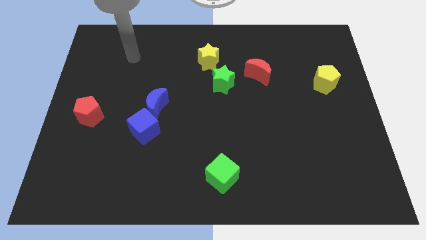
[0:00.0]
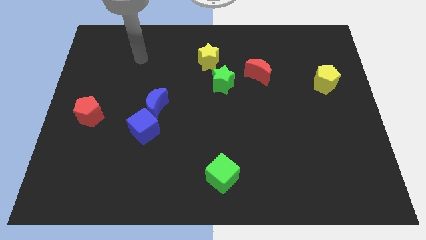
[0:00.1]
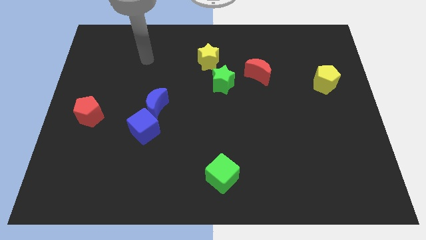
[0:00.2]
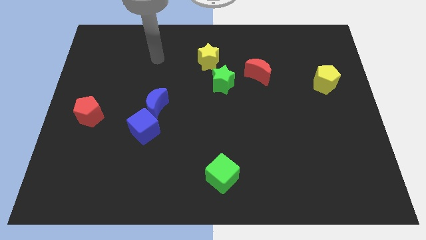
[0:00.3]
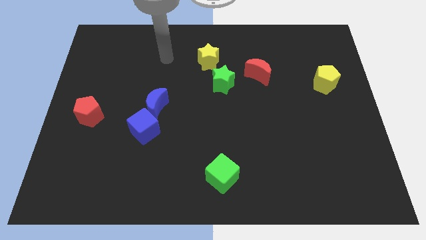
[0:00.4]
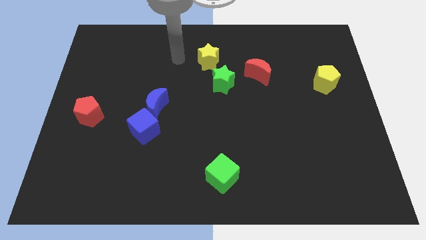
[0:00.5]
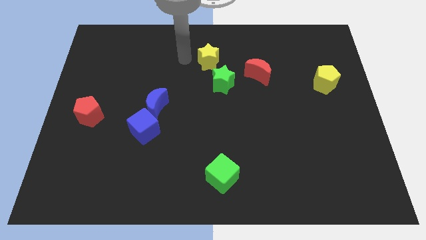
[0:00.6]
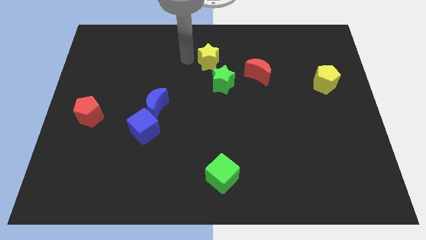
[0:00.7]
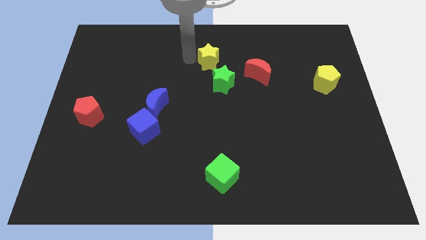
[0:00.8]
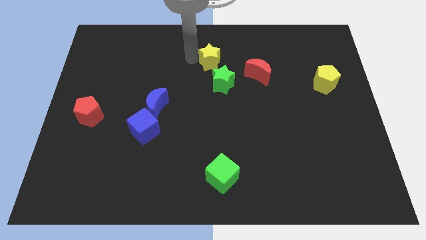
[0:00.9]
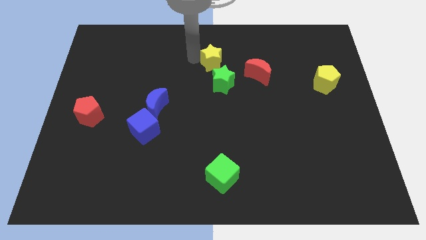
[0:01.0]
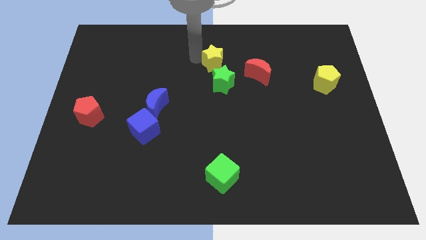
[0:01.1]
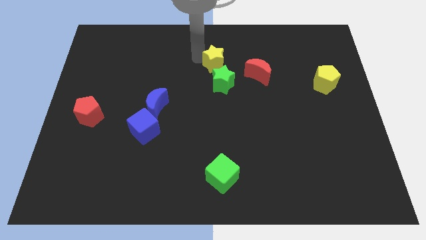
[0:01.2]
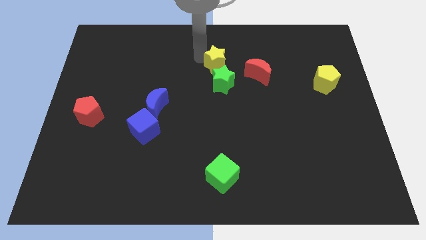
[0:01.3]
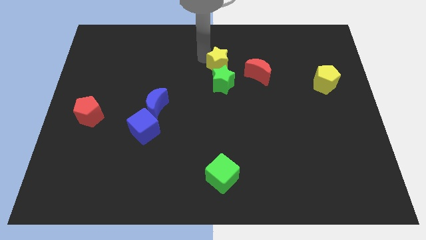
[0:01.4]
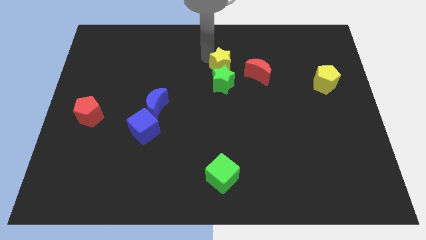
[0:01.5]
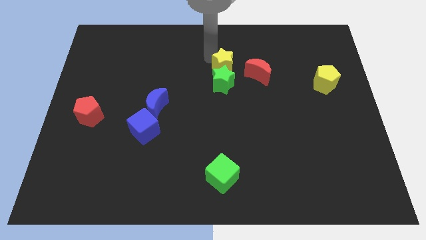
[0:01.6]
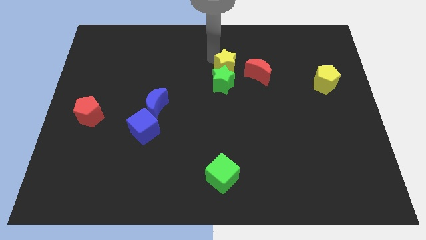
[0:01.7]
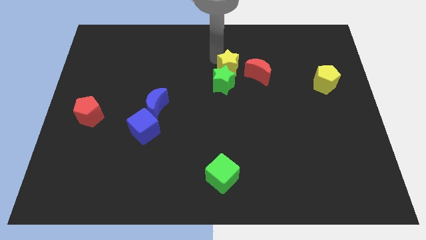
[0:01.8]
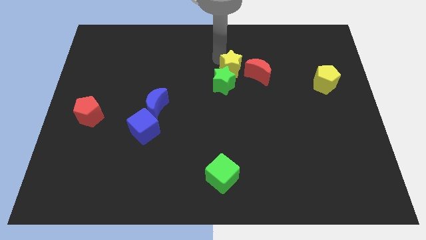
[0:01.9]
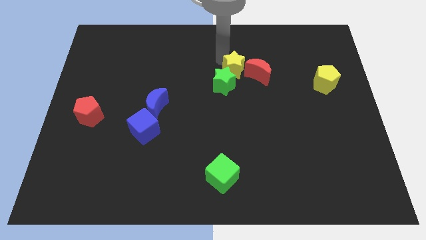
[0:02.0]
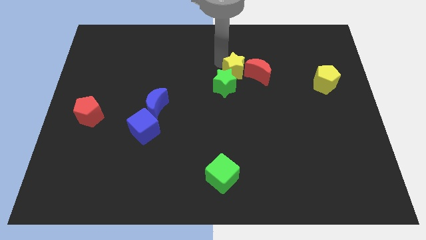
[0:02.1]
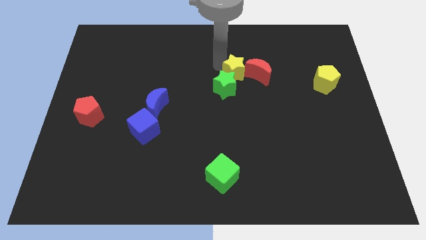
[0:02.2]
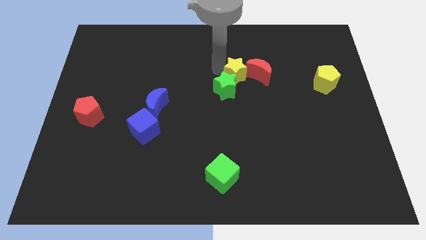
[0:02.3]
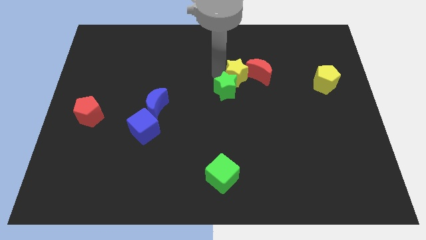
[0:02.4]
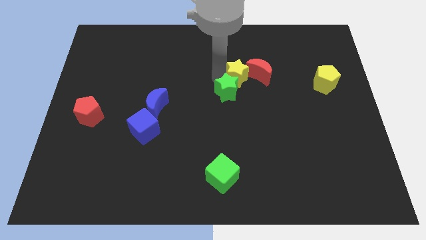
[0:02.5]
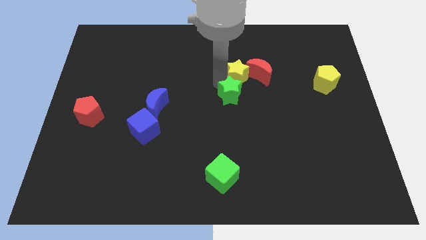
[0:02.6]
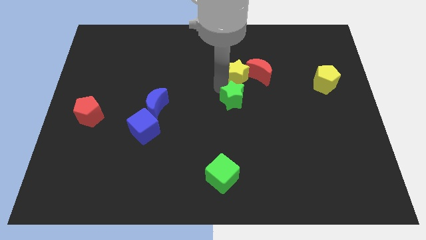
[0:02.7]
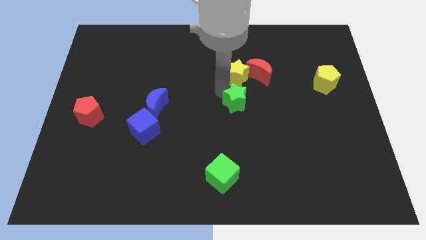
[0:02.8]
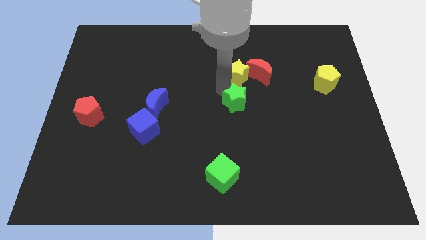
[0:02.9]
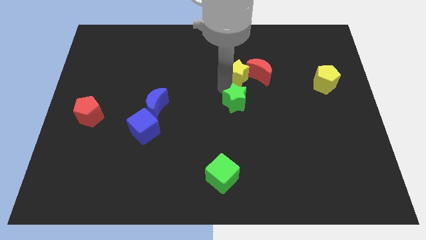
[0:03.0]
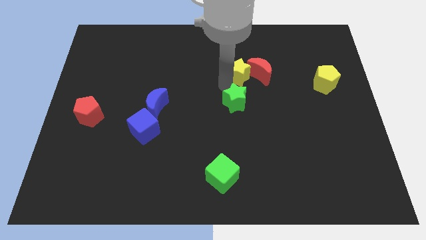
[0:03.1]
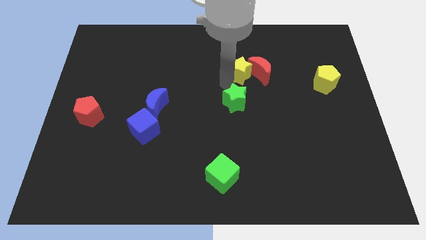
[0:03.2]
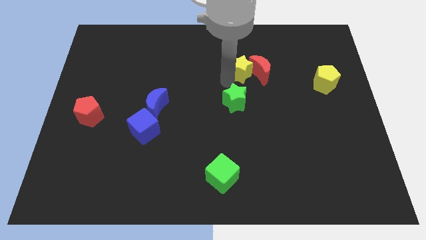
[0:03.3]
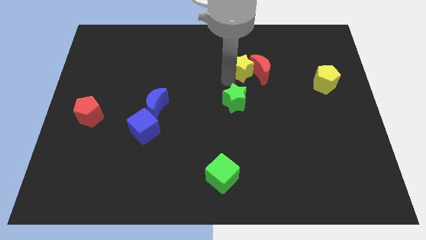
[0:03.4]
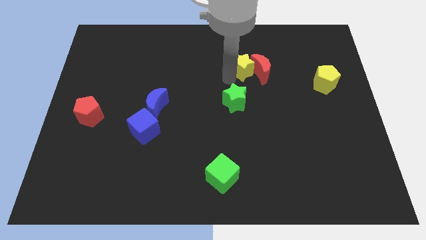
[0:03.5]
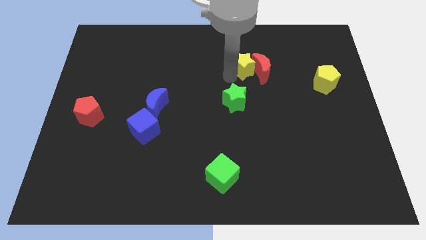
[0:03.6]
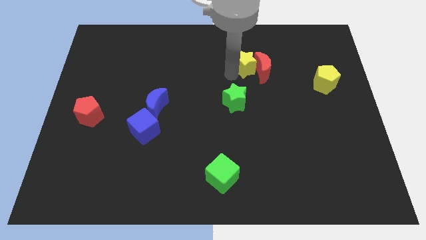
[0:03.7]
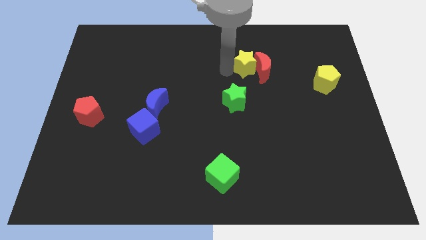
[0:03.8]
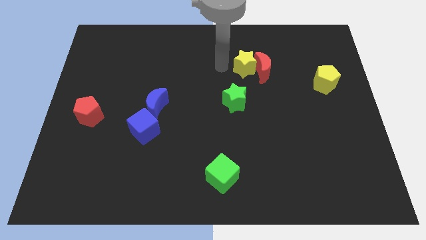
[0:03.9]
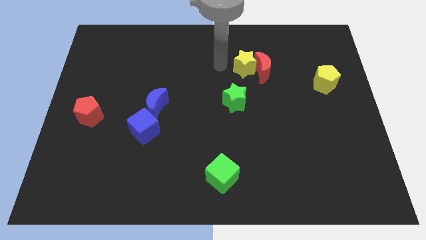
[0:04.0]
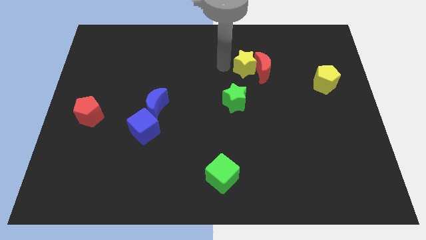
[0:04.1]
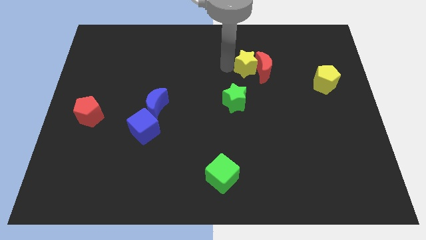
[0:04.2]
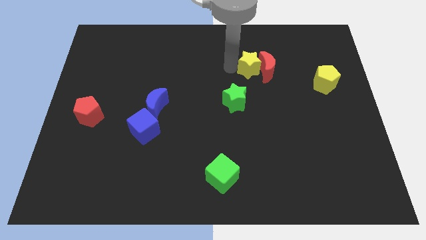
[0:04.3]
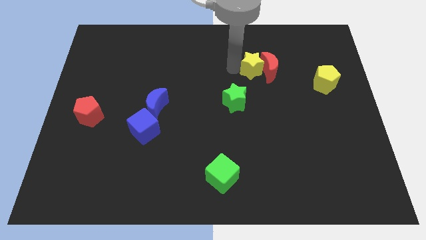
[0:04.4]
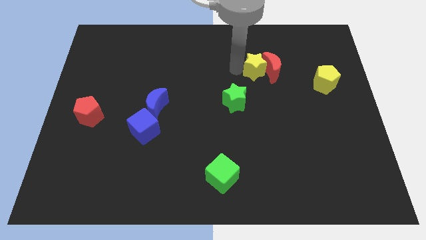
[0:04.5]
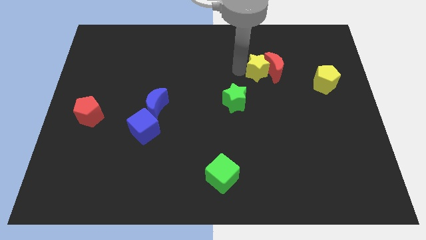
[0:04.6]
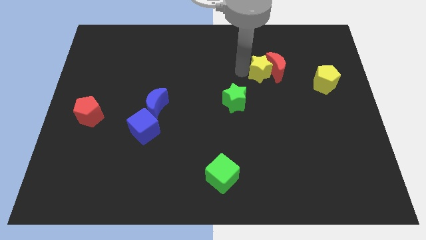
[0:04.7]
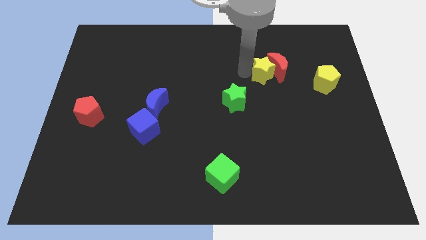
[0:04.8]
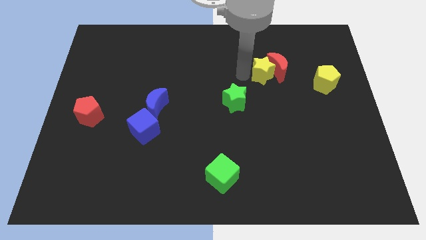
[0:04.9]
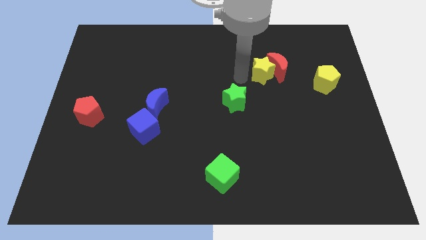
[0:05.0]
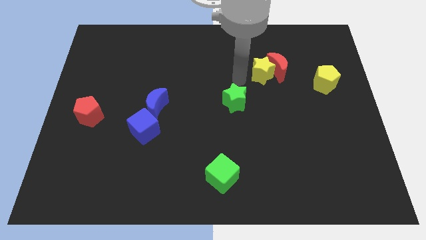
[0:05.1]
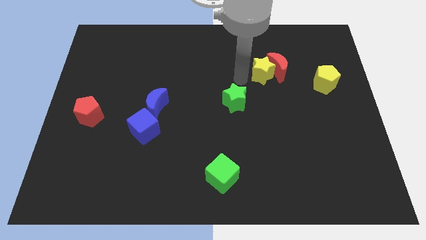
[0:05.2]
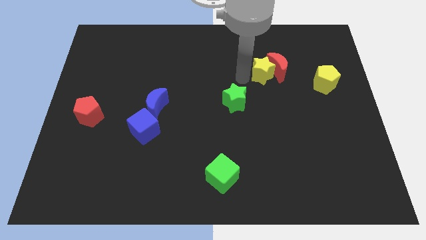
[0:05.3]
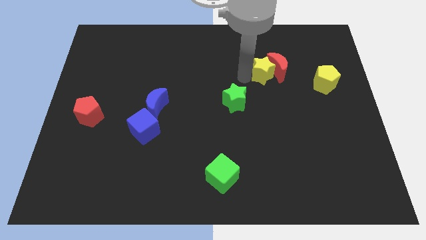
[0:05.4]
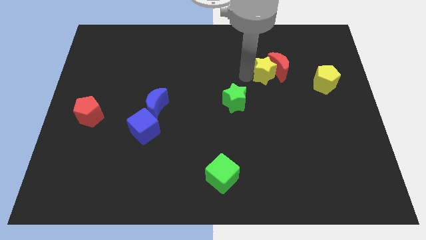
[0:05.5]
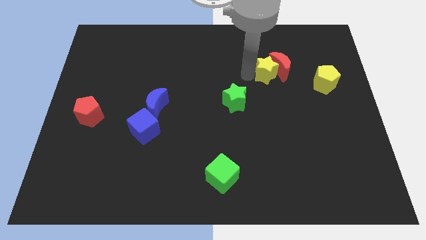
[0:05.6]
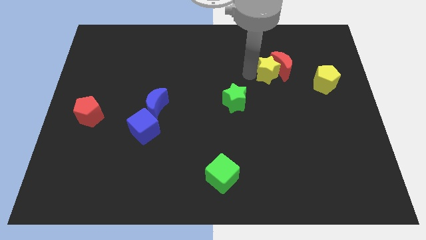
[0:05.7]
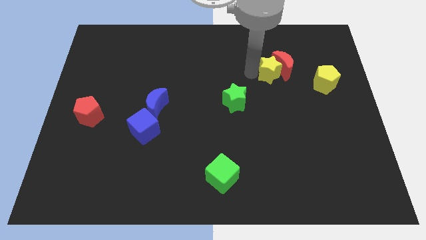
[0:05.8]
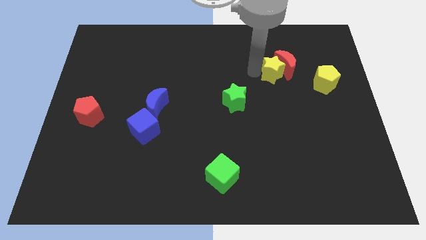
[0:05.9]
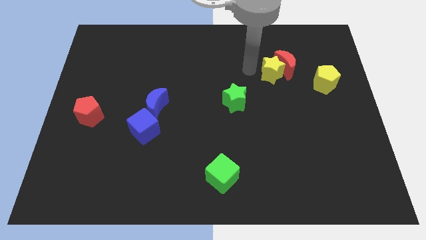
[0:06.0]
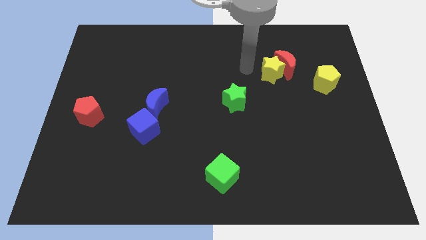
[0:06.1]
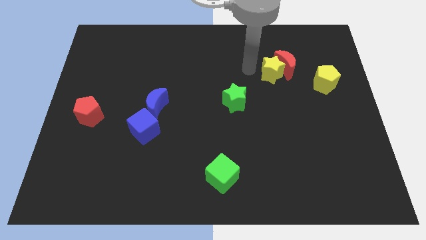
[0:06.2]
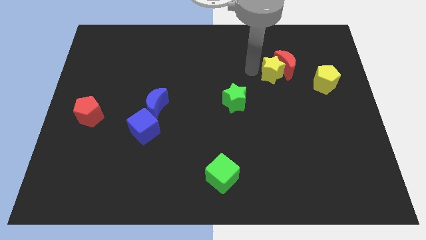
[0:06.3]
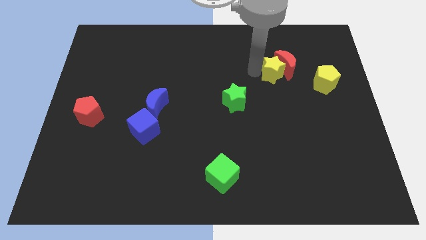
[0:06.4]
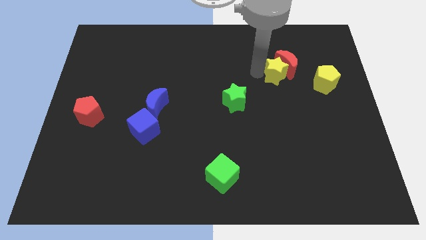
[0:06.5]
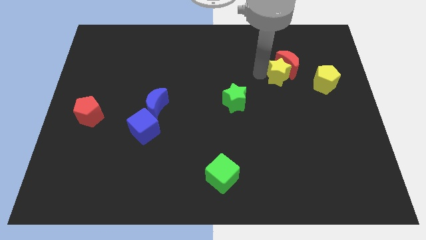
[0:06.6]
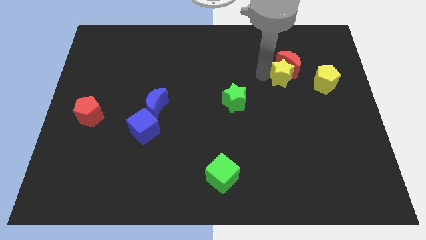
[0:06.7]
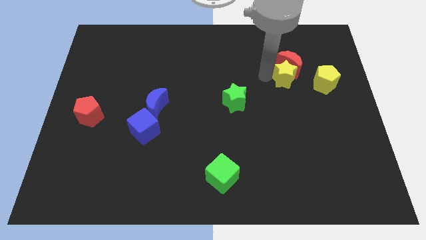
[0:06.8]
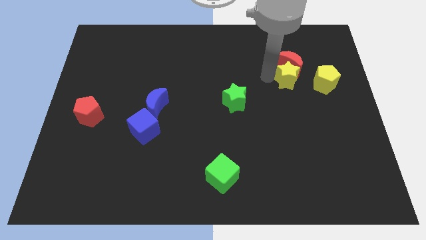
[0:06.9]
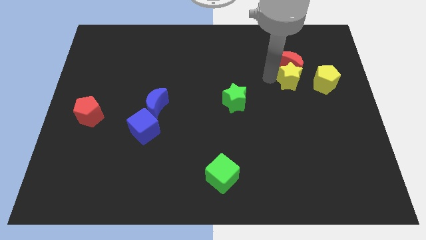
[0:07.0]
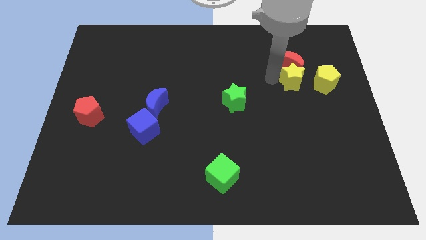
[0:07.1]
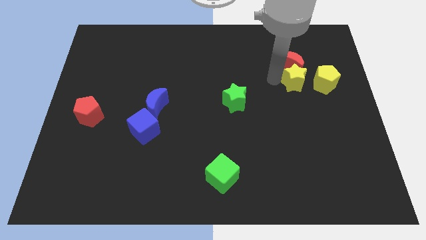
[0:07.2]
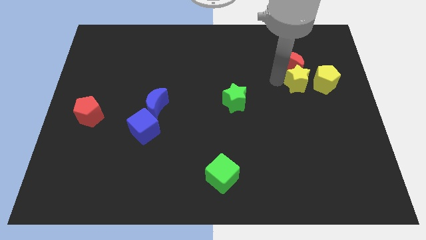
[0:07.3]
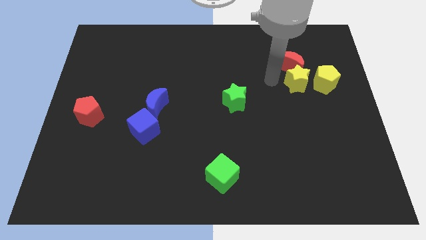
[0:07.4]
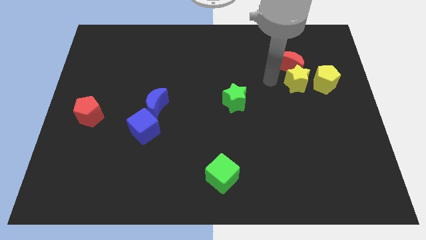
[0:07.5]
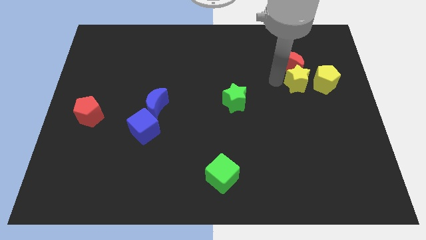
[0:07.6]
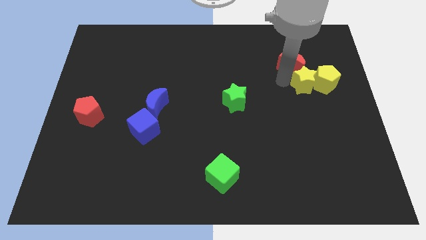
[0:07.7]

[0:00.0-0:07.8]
put the yellow star towards the yellow pentagon

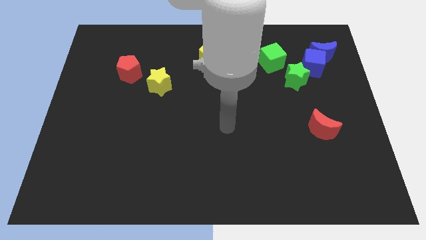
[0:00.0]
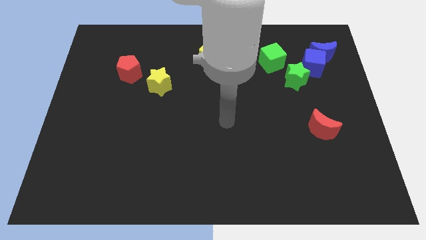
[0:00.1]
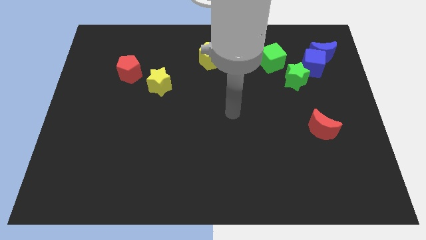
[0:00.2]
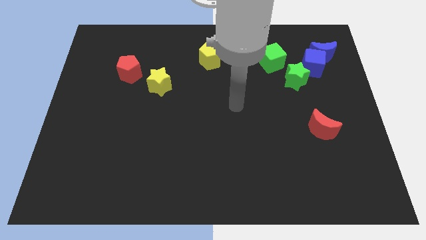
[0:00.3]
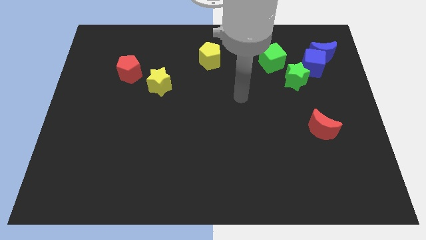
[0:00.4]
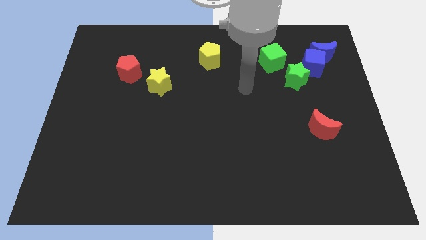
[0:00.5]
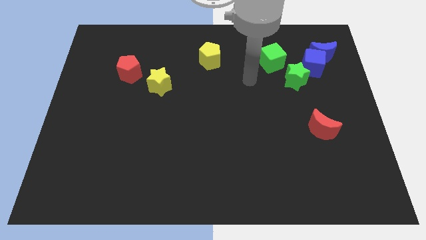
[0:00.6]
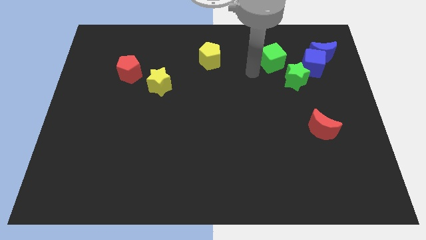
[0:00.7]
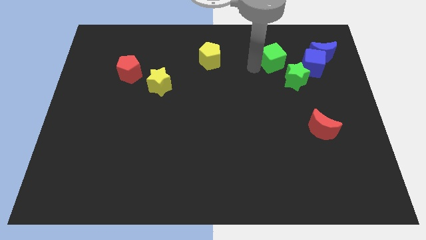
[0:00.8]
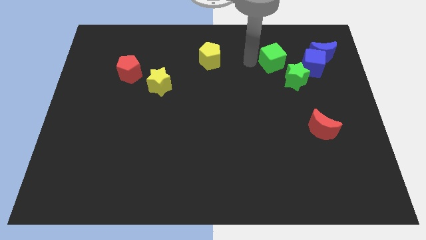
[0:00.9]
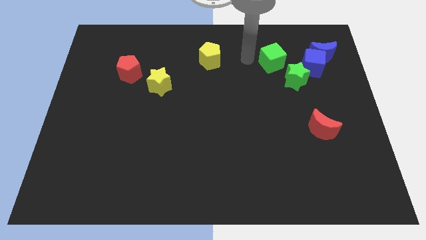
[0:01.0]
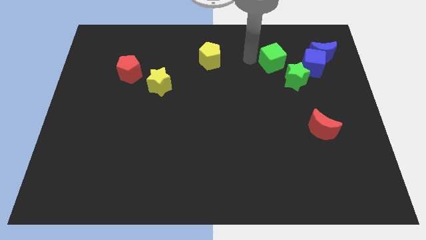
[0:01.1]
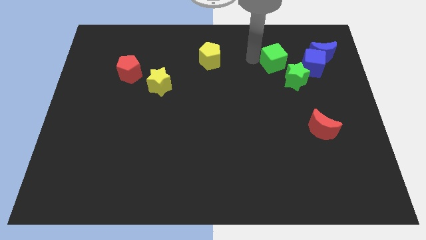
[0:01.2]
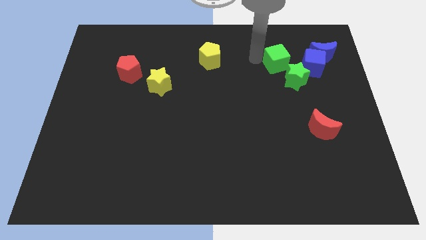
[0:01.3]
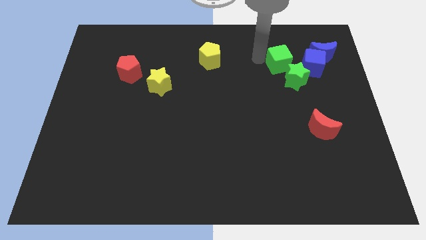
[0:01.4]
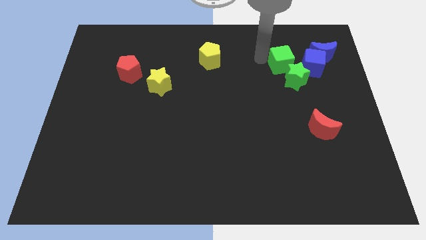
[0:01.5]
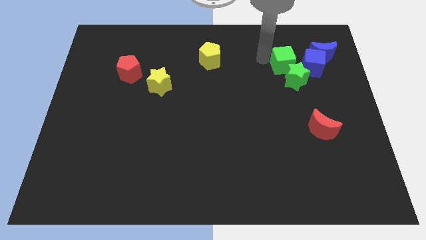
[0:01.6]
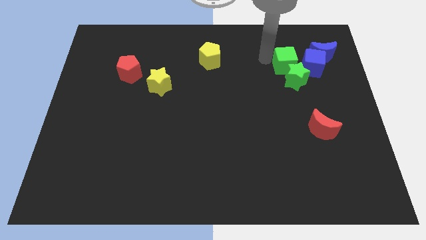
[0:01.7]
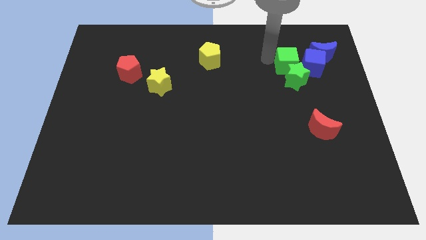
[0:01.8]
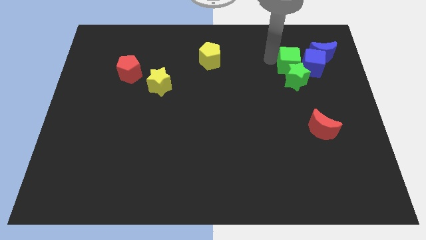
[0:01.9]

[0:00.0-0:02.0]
put the green cube towards the blue cube
